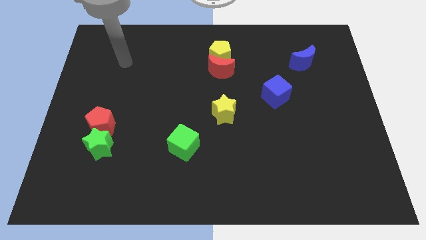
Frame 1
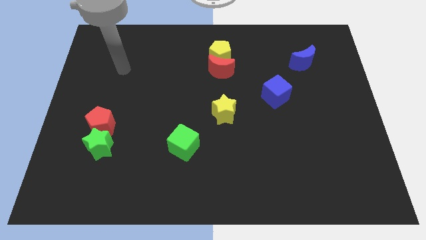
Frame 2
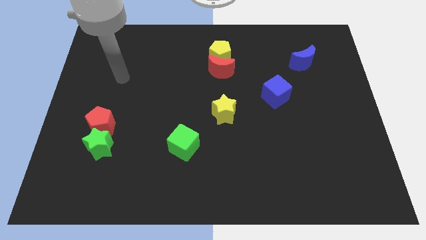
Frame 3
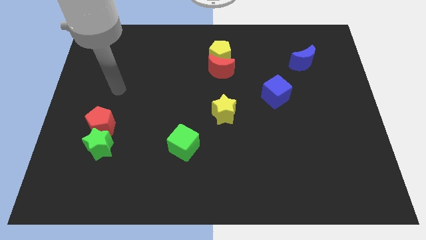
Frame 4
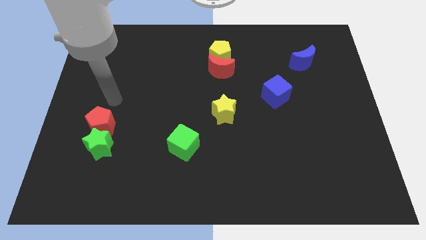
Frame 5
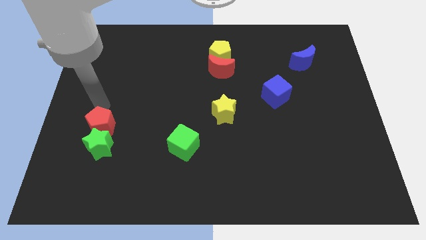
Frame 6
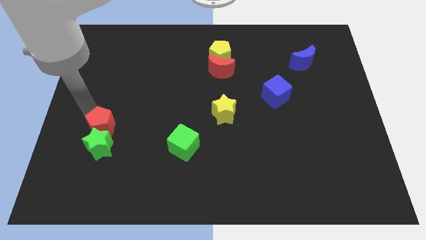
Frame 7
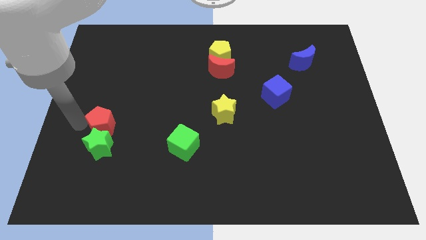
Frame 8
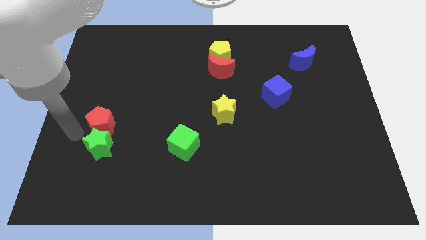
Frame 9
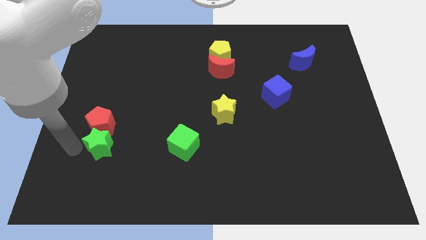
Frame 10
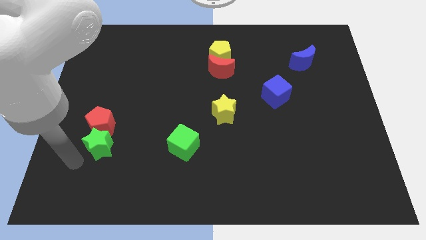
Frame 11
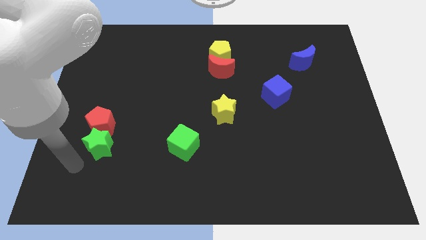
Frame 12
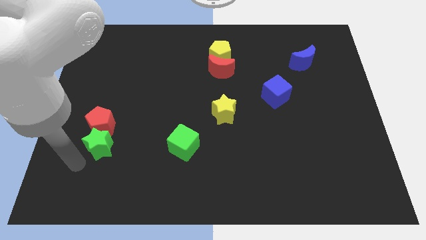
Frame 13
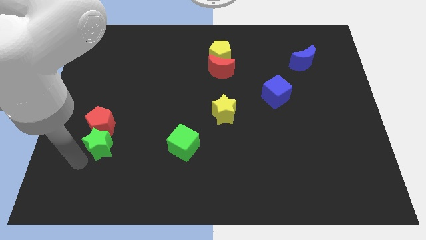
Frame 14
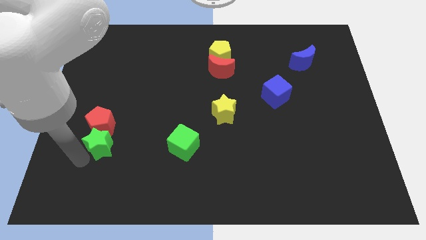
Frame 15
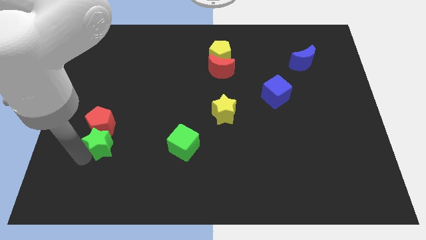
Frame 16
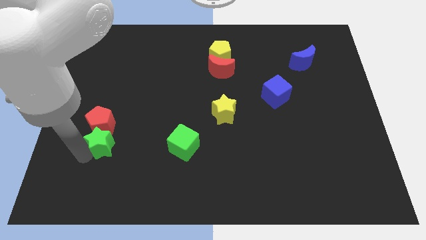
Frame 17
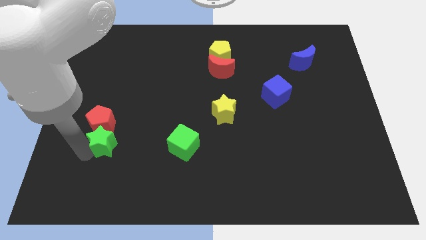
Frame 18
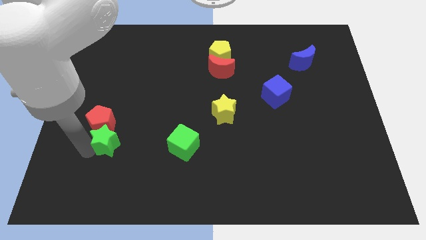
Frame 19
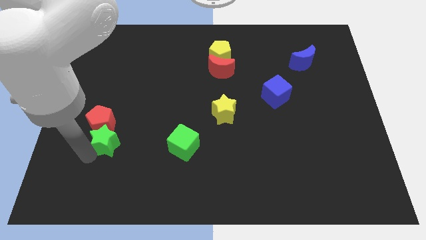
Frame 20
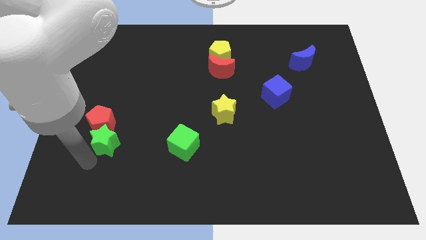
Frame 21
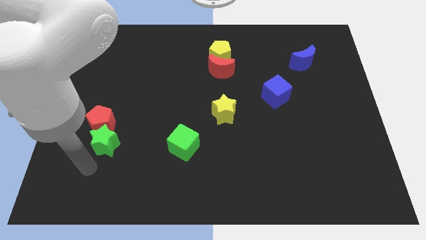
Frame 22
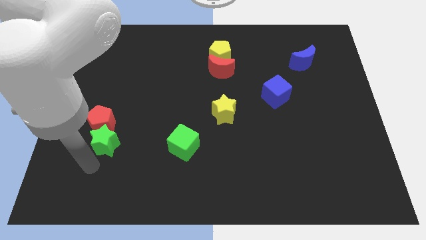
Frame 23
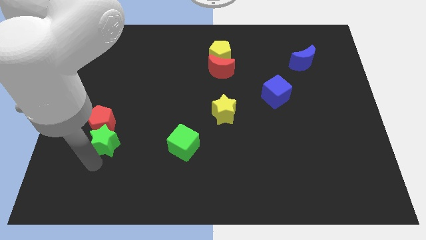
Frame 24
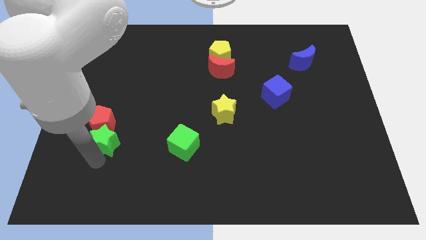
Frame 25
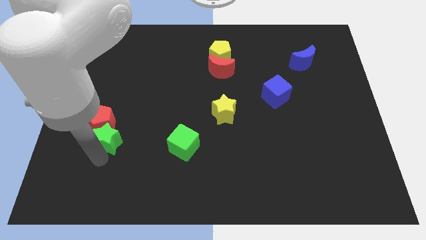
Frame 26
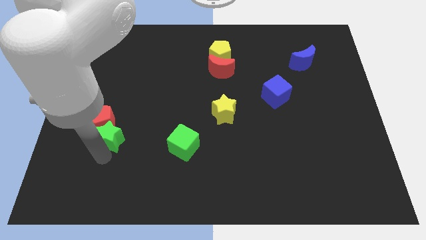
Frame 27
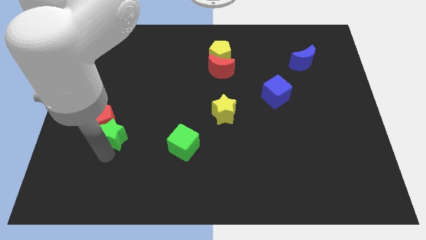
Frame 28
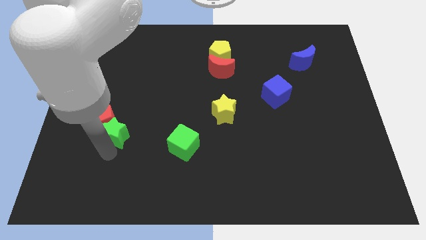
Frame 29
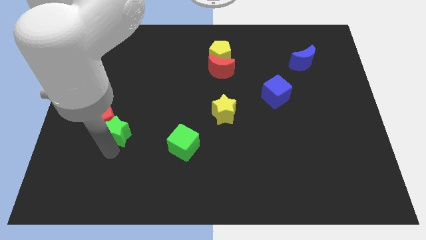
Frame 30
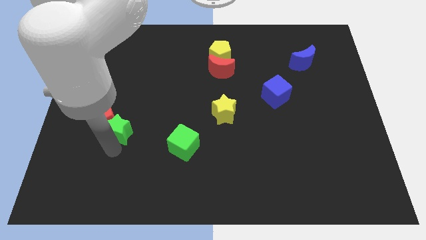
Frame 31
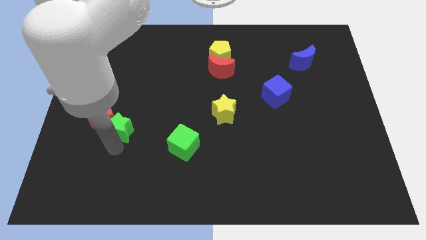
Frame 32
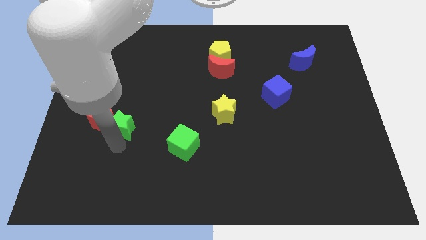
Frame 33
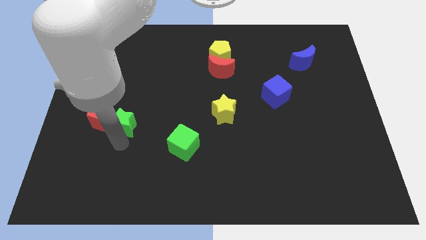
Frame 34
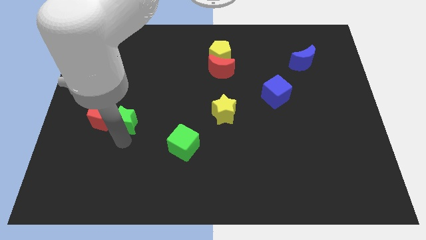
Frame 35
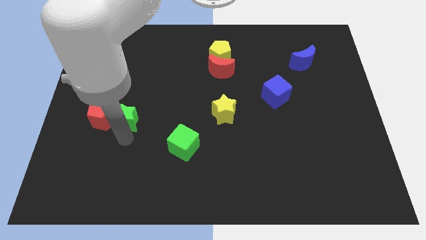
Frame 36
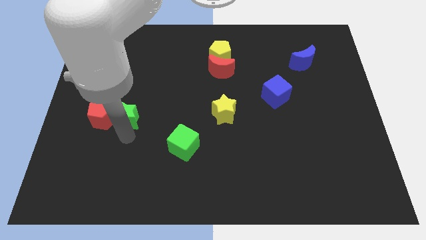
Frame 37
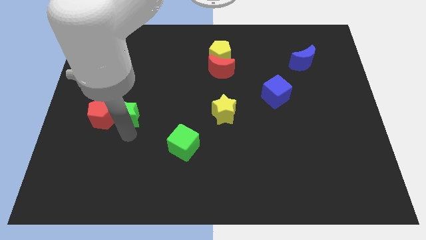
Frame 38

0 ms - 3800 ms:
slightly slide the green star upwards

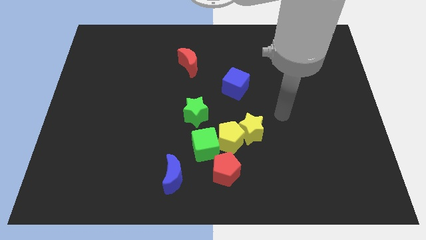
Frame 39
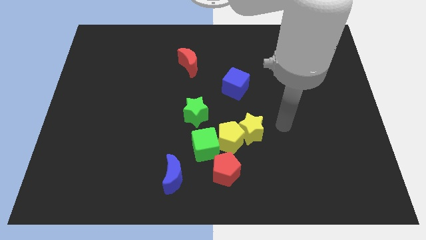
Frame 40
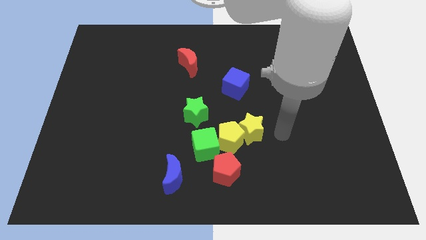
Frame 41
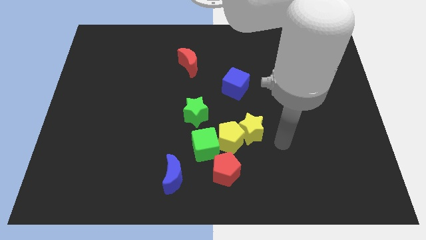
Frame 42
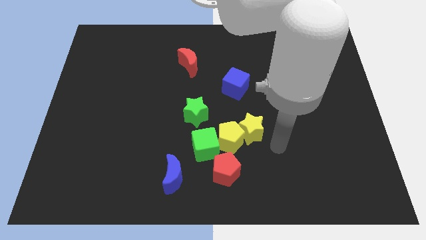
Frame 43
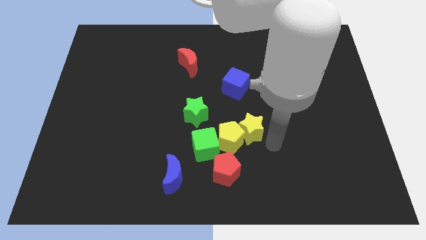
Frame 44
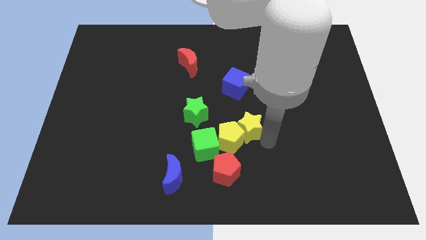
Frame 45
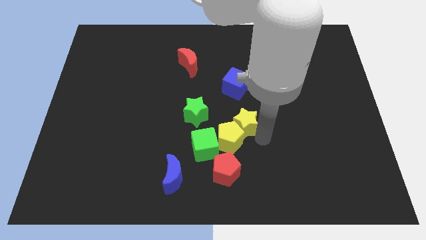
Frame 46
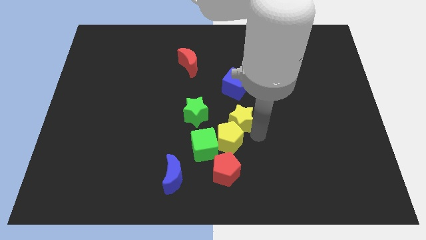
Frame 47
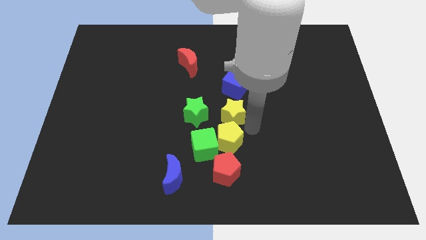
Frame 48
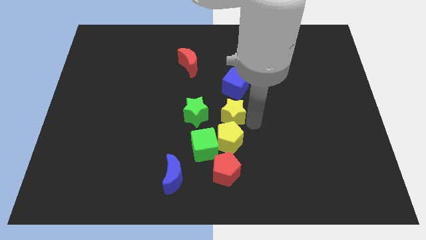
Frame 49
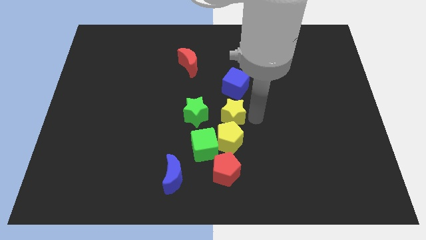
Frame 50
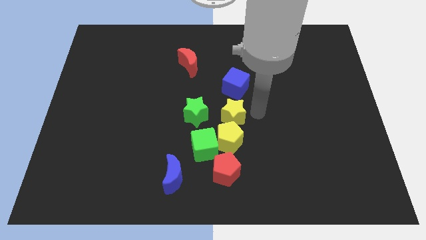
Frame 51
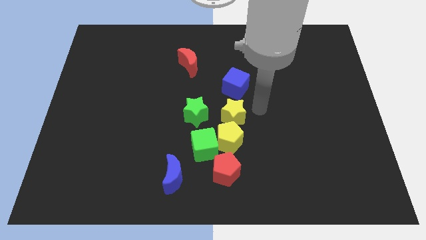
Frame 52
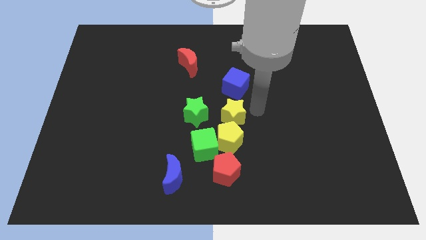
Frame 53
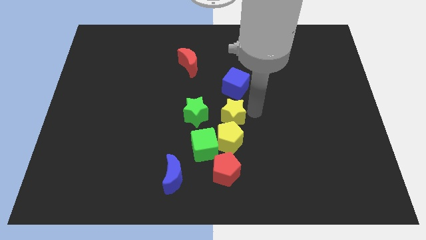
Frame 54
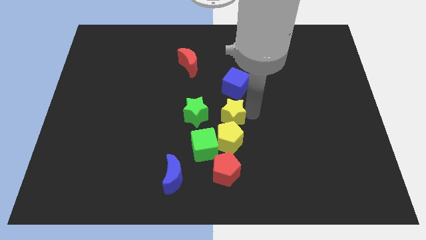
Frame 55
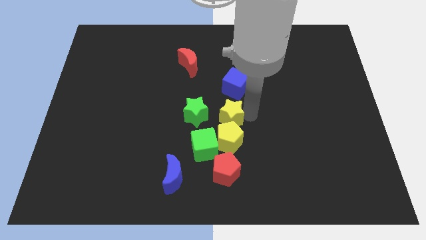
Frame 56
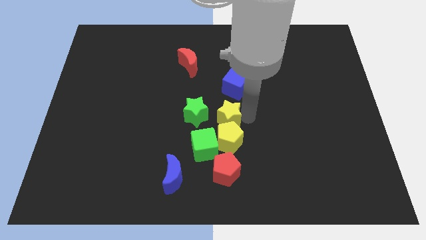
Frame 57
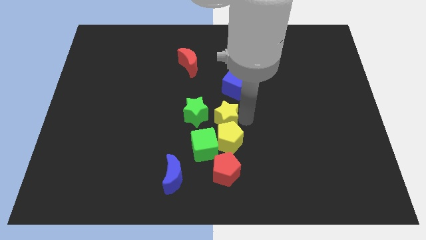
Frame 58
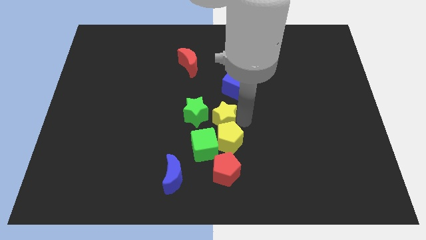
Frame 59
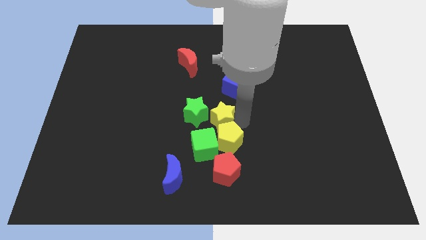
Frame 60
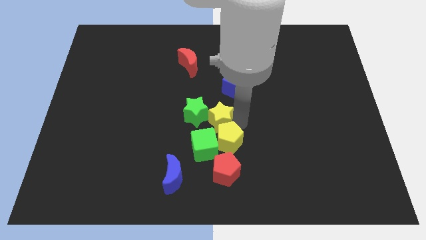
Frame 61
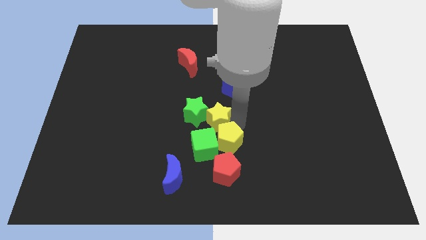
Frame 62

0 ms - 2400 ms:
slide the yellow star a bit left

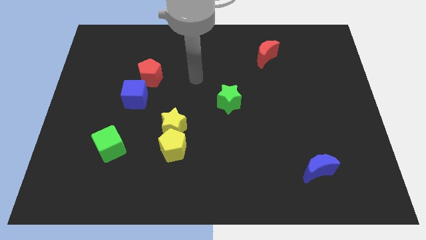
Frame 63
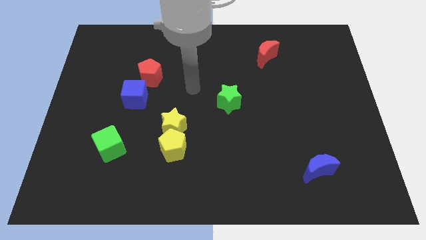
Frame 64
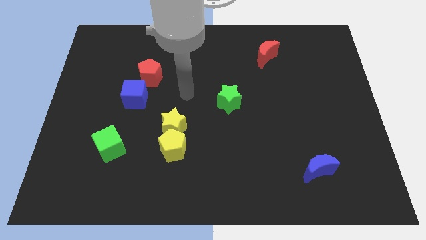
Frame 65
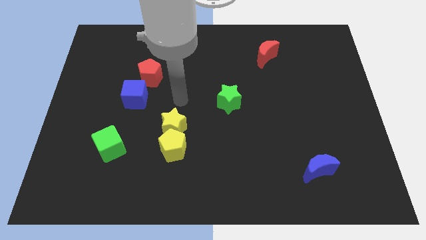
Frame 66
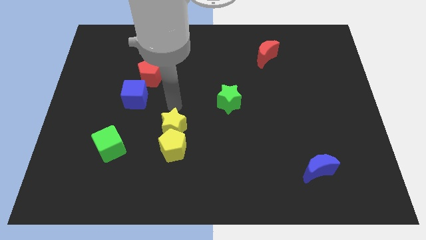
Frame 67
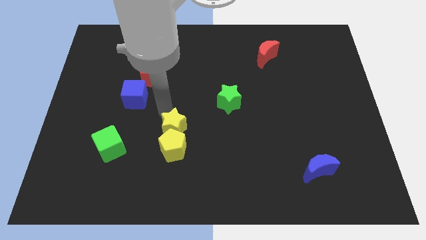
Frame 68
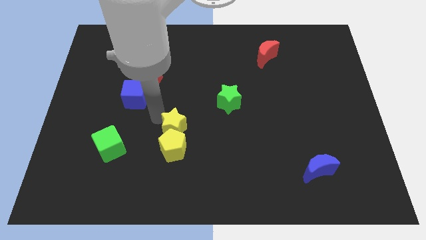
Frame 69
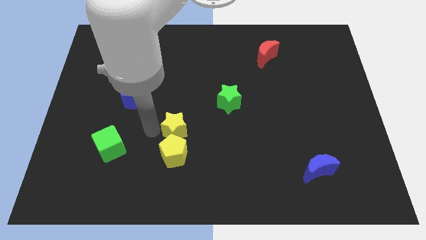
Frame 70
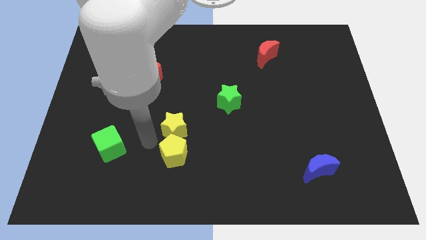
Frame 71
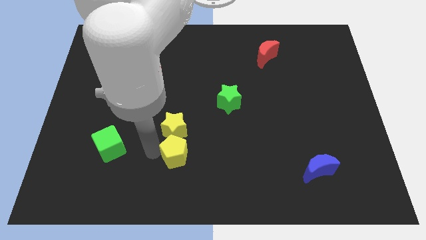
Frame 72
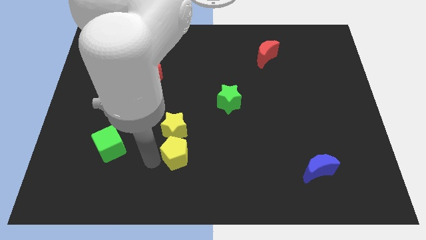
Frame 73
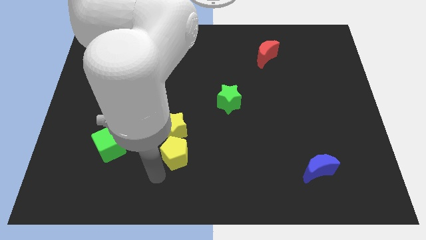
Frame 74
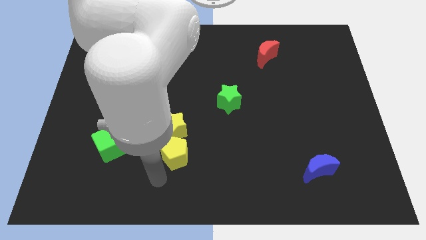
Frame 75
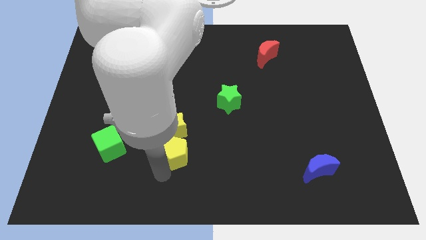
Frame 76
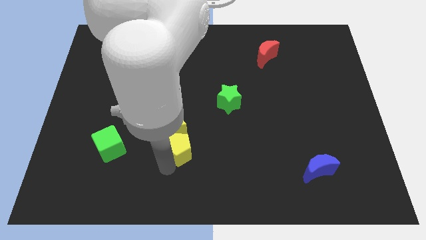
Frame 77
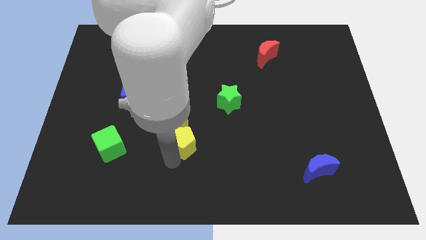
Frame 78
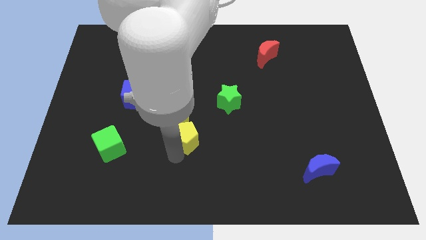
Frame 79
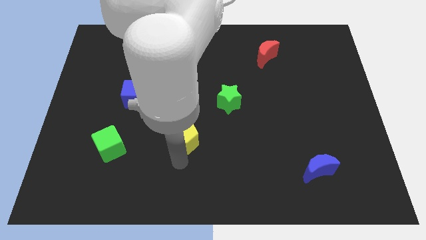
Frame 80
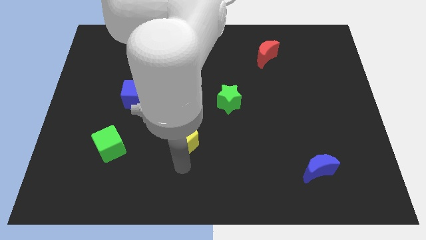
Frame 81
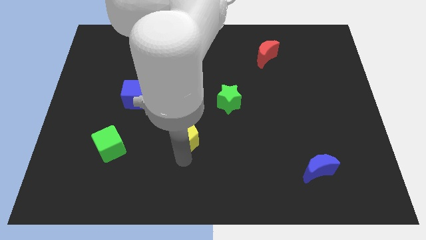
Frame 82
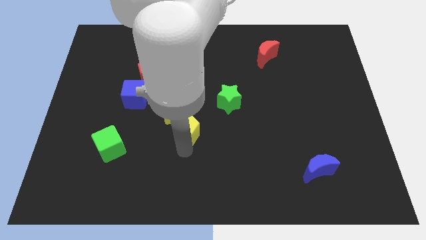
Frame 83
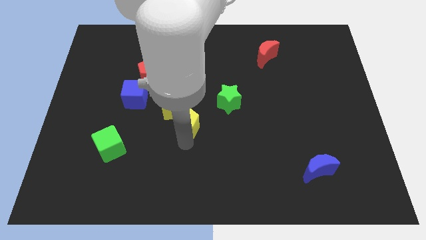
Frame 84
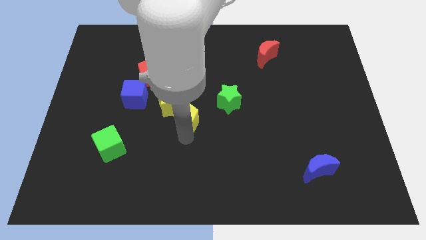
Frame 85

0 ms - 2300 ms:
move the yellow pentagon up a little
